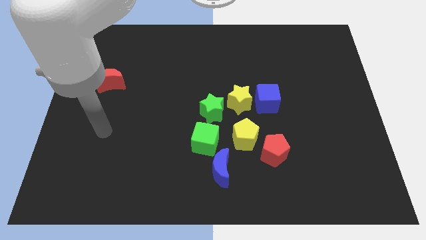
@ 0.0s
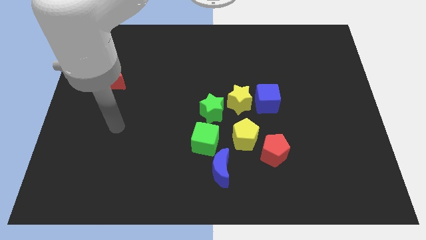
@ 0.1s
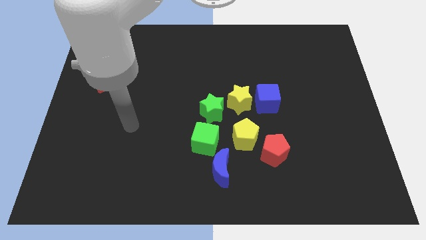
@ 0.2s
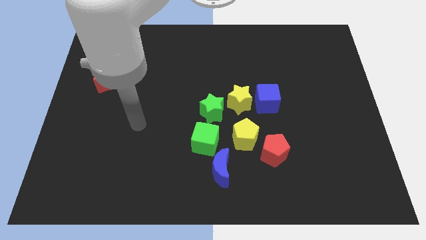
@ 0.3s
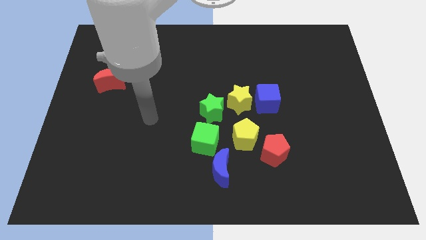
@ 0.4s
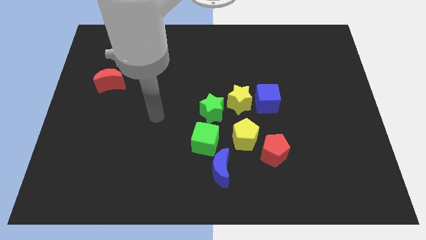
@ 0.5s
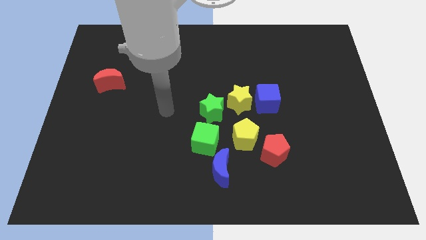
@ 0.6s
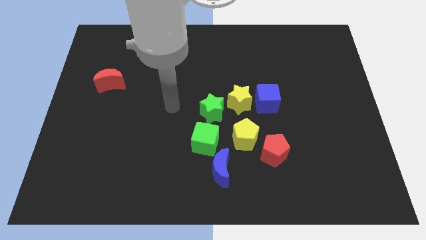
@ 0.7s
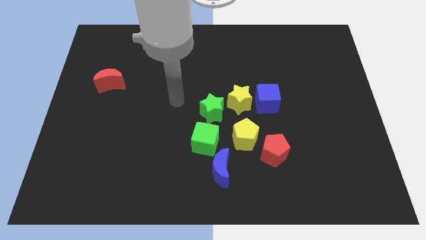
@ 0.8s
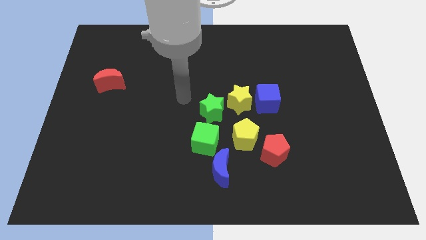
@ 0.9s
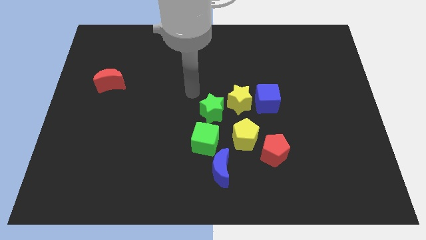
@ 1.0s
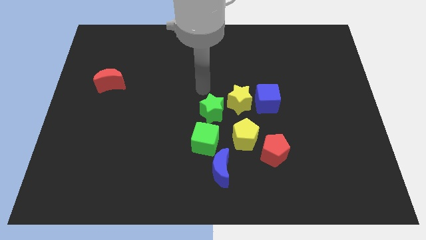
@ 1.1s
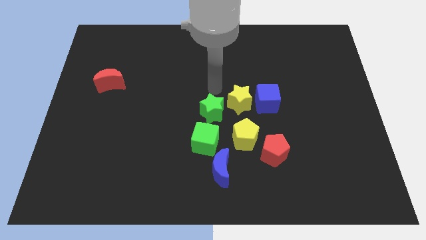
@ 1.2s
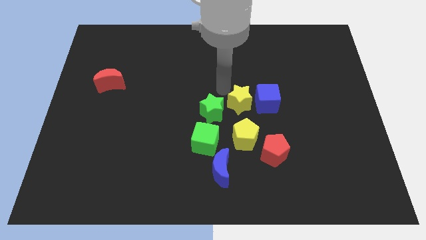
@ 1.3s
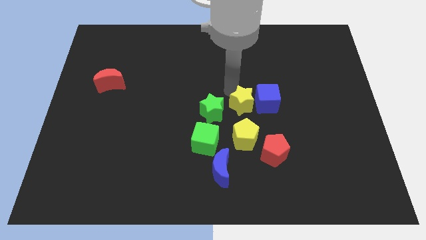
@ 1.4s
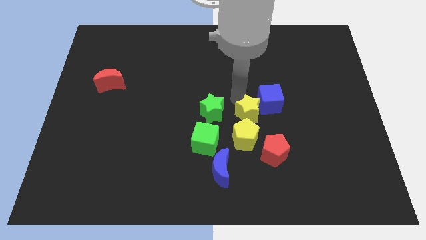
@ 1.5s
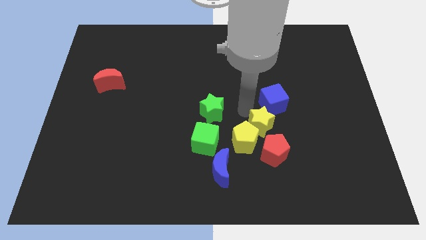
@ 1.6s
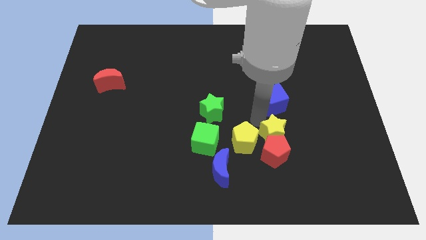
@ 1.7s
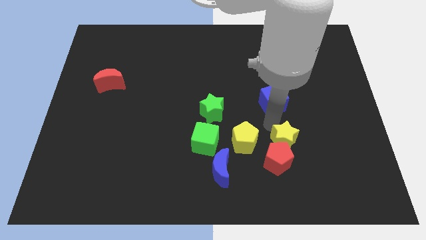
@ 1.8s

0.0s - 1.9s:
move the blue cube away from the yellow star

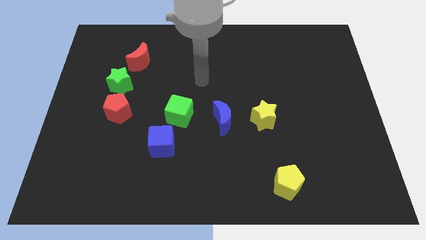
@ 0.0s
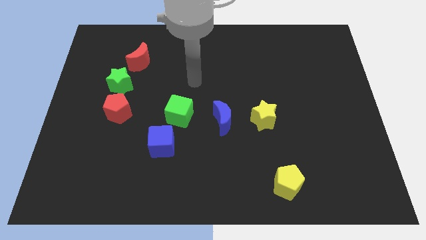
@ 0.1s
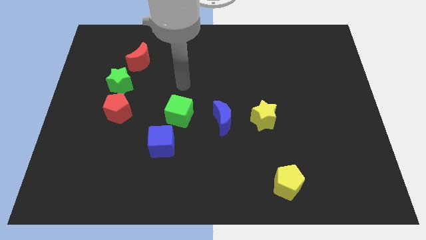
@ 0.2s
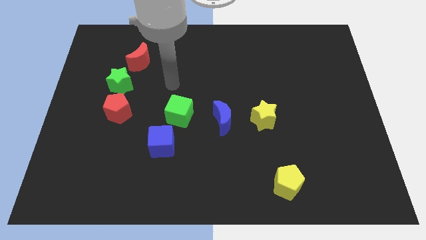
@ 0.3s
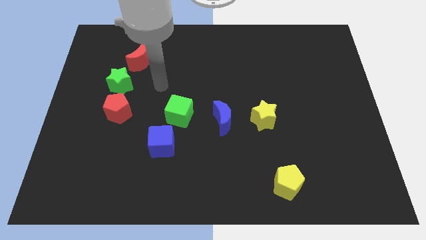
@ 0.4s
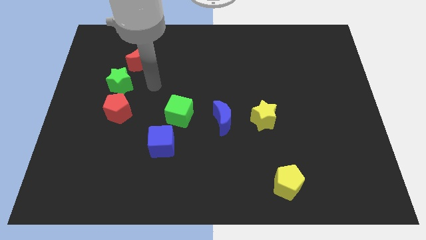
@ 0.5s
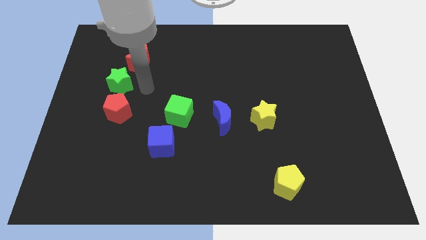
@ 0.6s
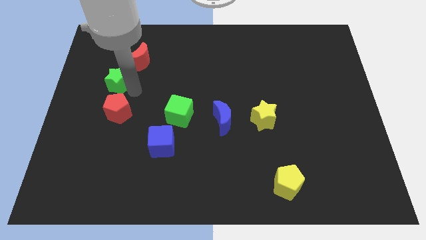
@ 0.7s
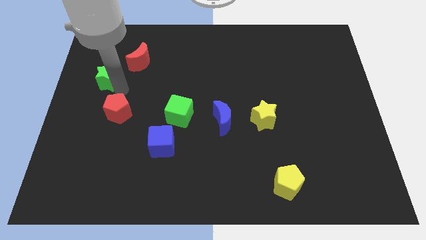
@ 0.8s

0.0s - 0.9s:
separate the red pentagon from the green star

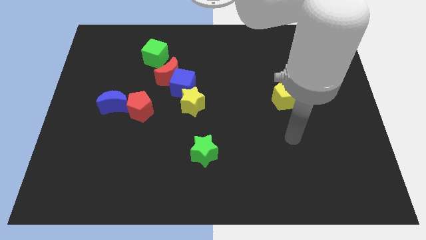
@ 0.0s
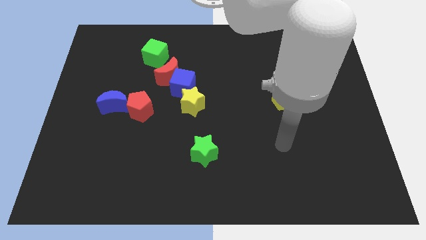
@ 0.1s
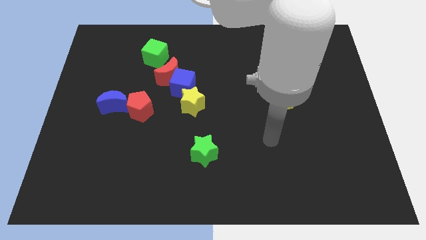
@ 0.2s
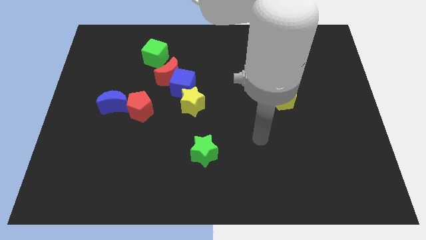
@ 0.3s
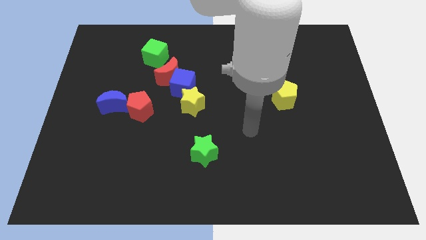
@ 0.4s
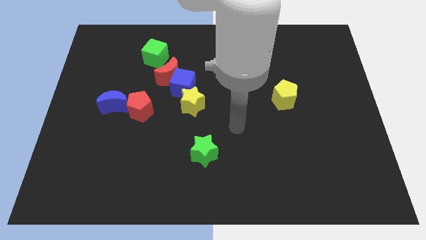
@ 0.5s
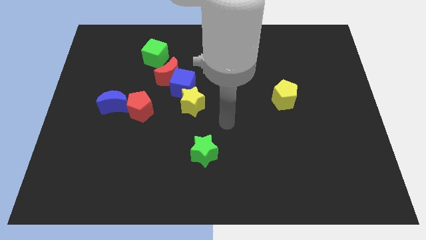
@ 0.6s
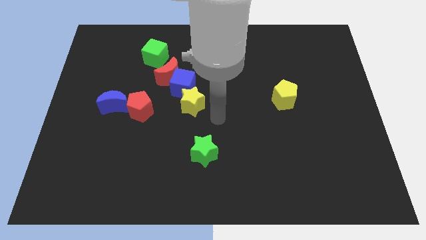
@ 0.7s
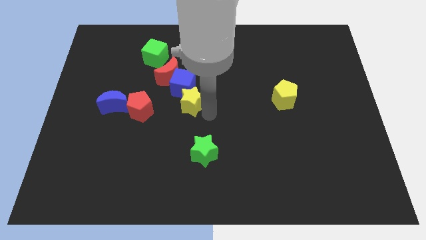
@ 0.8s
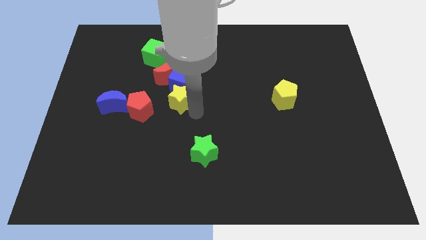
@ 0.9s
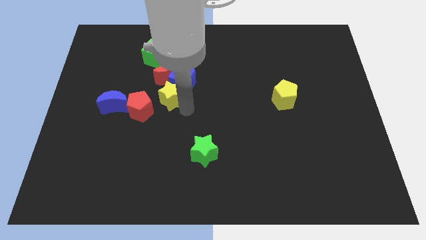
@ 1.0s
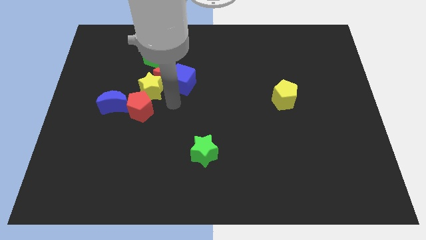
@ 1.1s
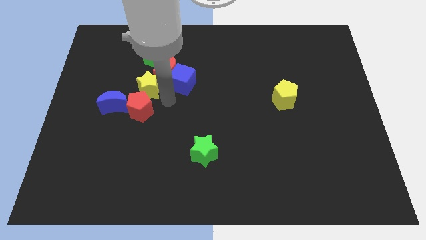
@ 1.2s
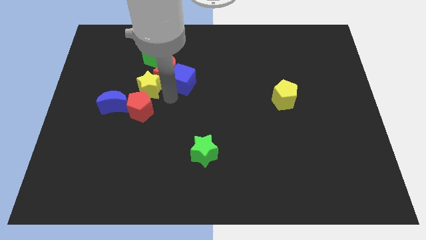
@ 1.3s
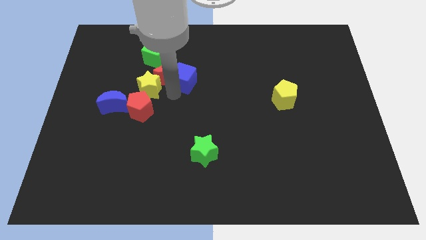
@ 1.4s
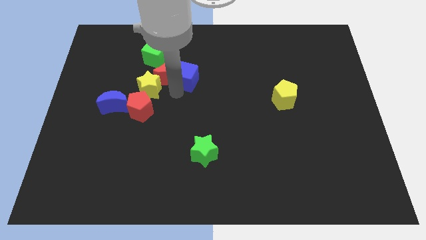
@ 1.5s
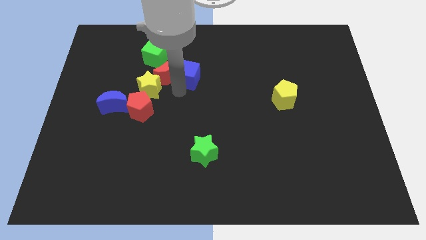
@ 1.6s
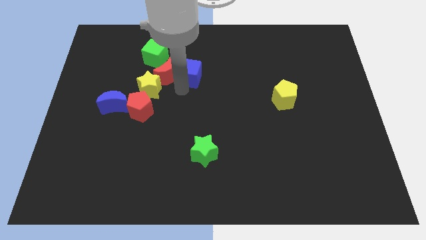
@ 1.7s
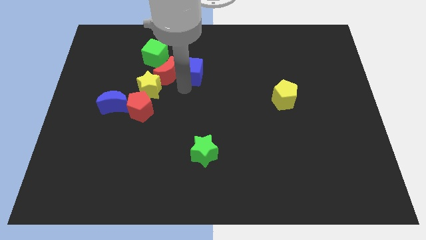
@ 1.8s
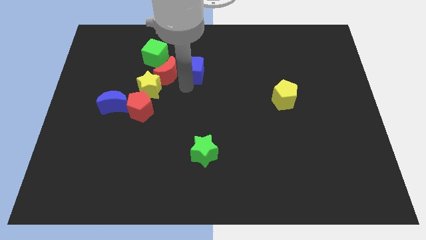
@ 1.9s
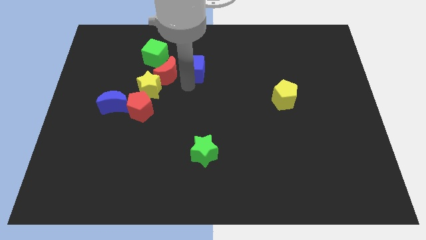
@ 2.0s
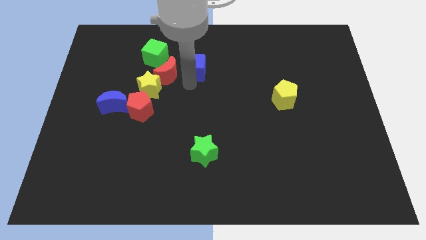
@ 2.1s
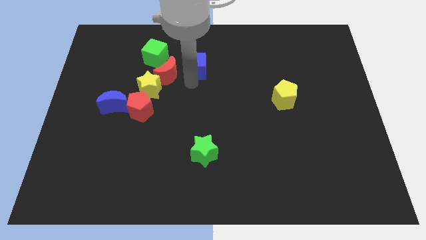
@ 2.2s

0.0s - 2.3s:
move the blue cube away from the red moon and yellow star

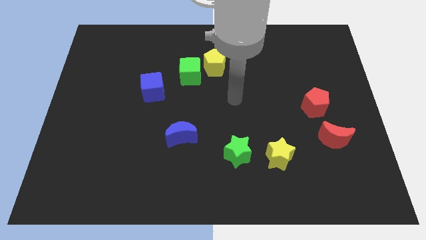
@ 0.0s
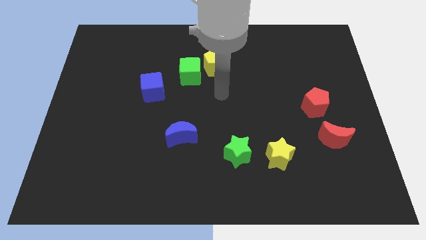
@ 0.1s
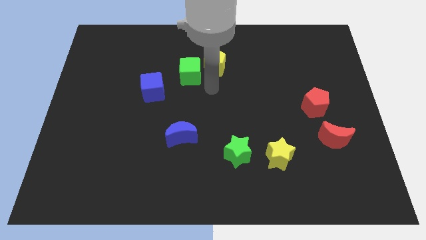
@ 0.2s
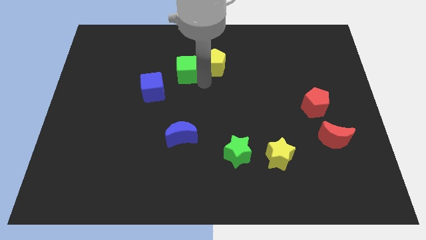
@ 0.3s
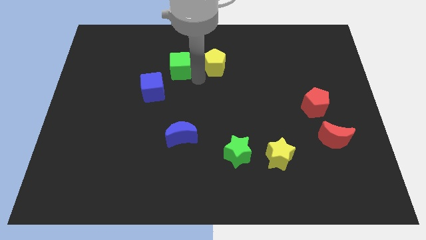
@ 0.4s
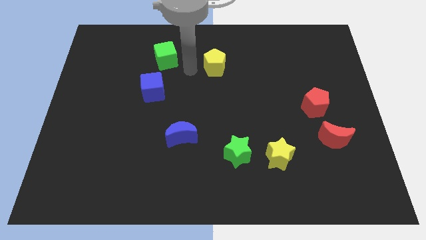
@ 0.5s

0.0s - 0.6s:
move the yellow pentagon away from the green cube

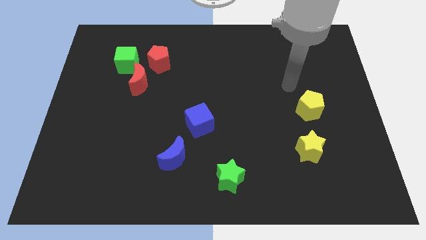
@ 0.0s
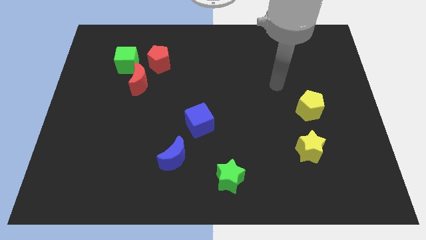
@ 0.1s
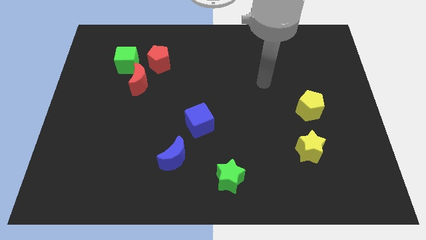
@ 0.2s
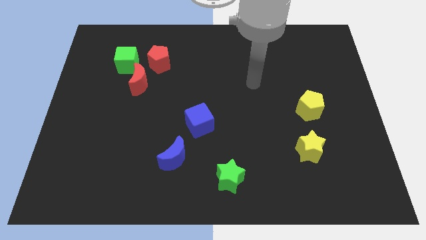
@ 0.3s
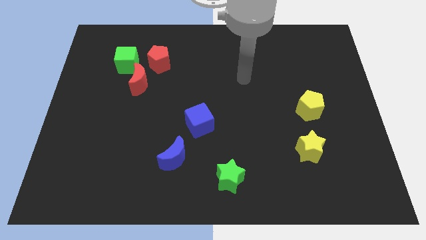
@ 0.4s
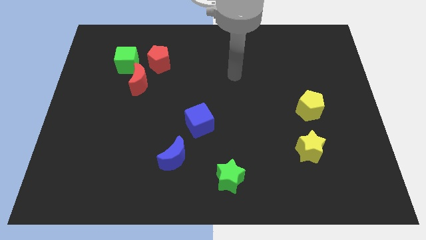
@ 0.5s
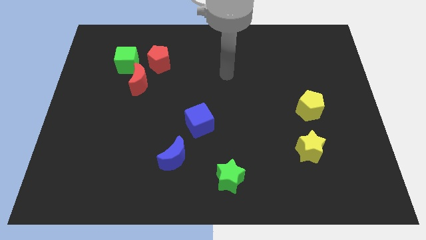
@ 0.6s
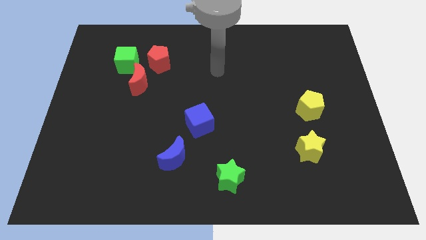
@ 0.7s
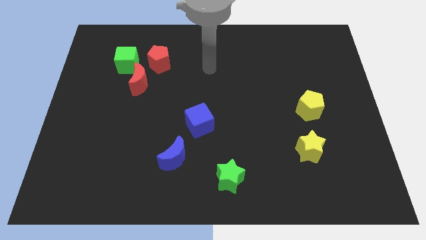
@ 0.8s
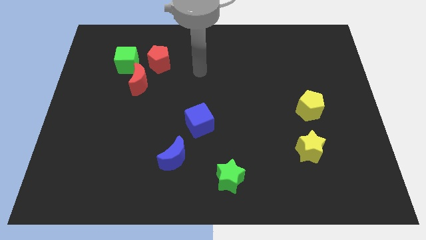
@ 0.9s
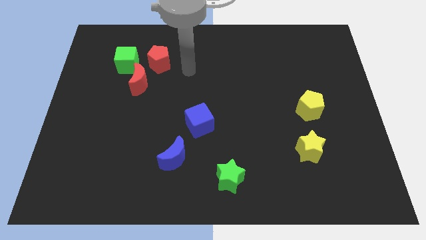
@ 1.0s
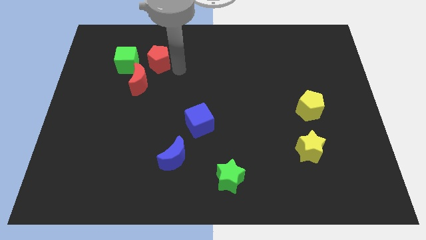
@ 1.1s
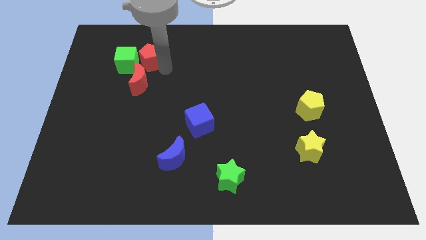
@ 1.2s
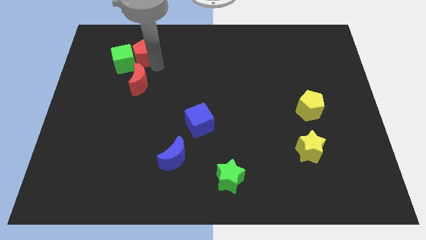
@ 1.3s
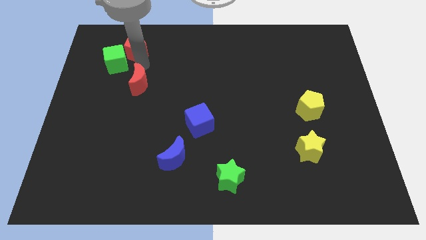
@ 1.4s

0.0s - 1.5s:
move the red moon away from the green cube and red pentagon

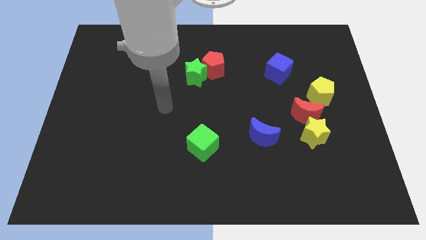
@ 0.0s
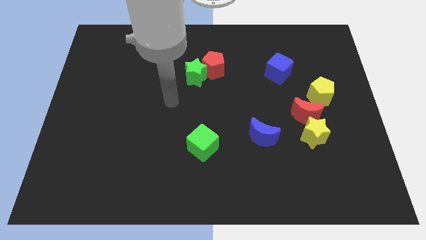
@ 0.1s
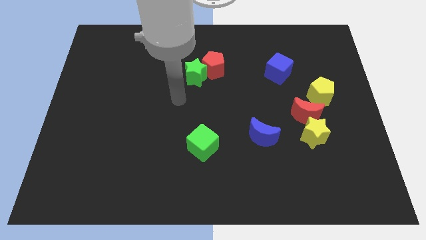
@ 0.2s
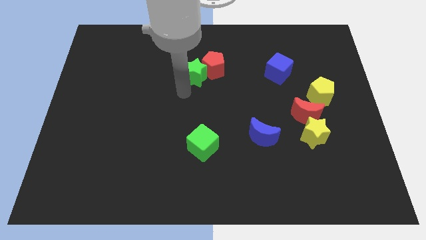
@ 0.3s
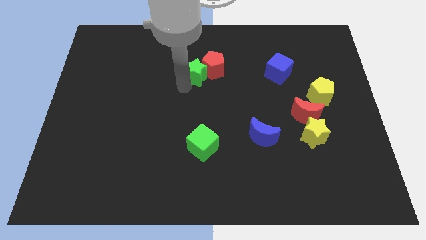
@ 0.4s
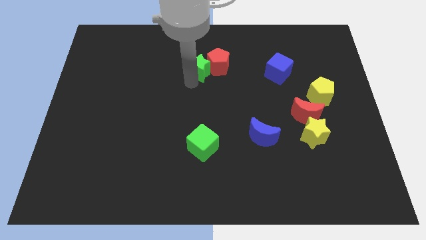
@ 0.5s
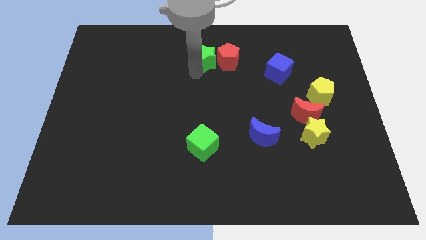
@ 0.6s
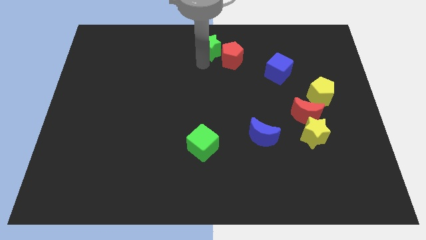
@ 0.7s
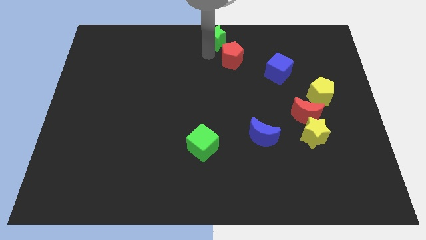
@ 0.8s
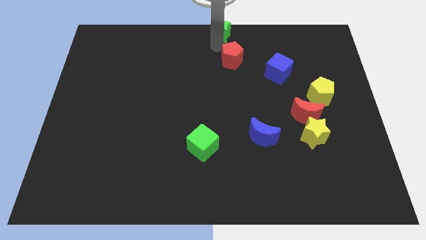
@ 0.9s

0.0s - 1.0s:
pull the red pentagon apart from the green star

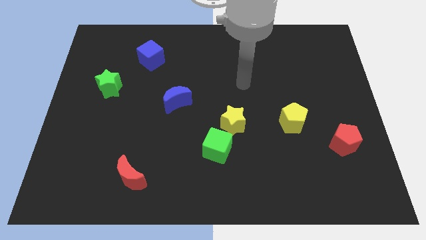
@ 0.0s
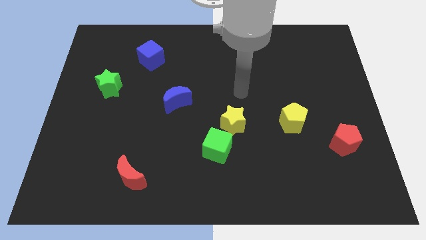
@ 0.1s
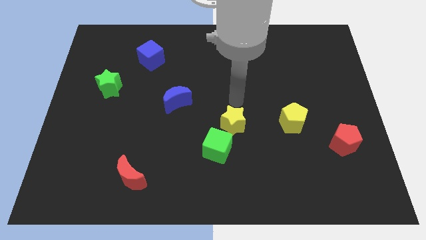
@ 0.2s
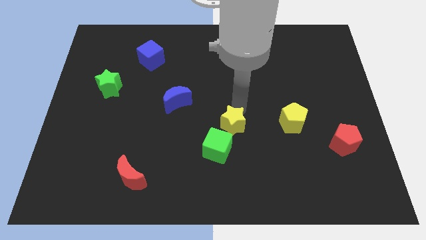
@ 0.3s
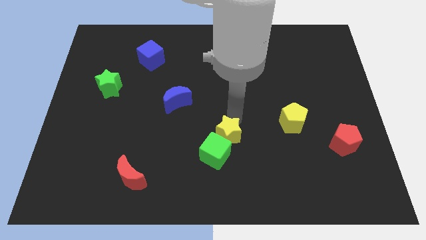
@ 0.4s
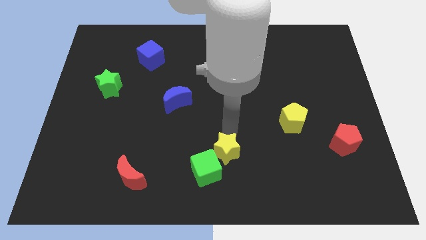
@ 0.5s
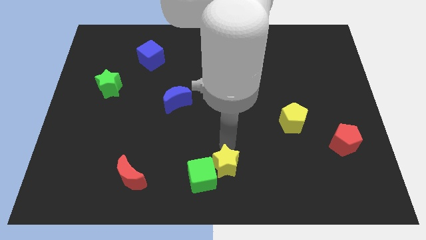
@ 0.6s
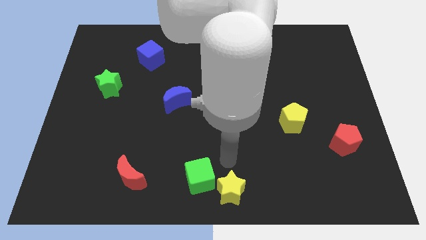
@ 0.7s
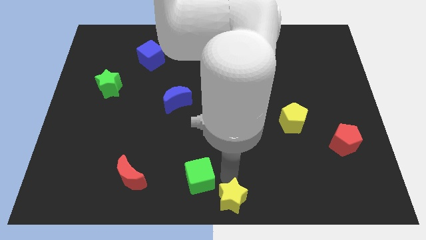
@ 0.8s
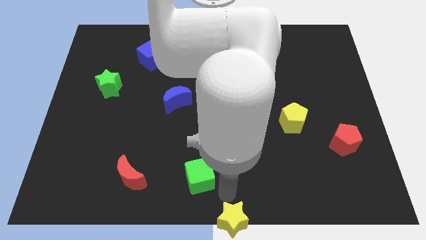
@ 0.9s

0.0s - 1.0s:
separate the green cube from the yellow star
